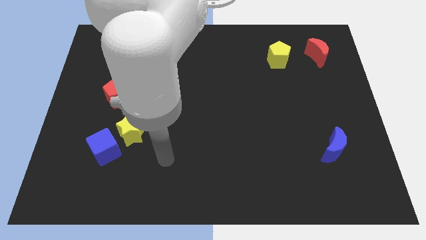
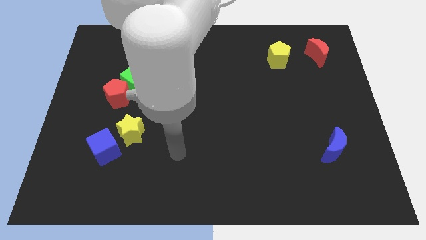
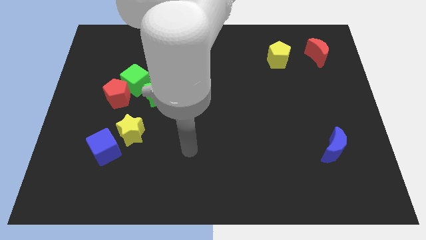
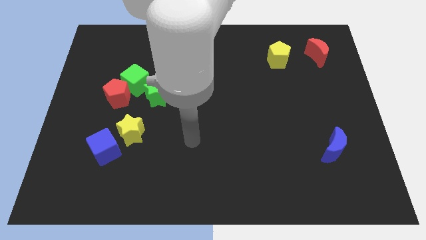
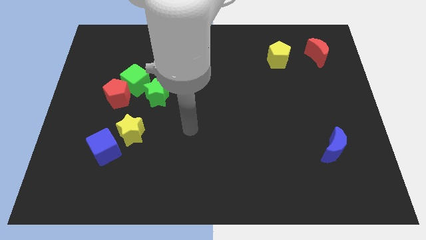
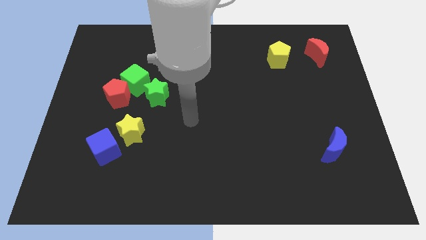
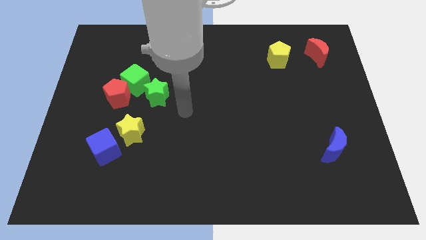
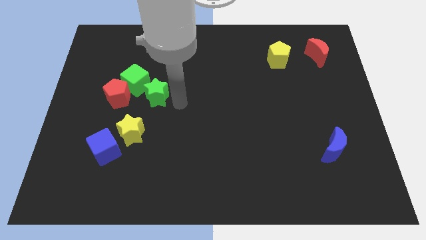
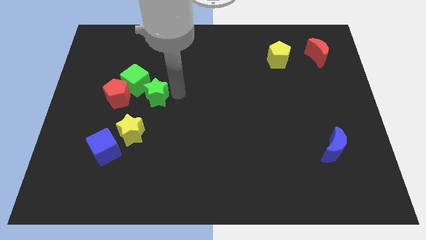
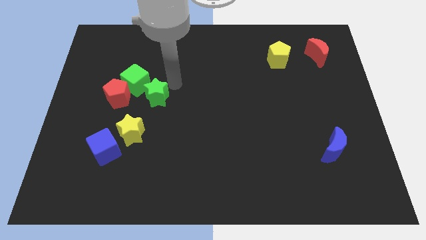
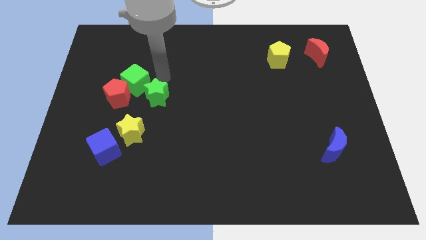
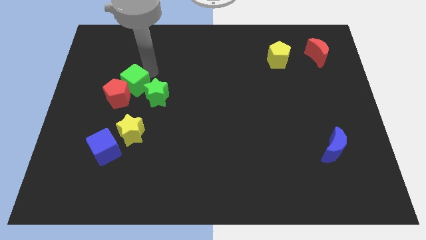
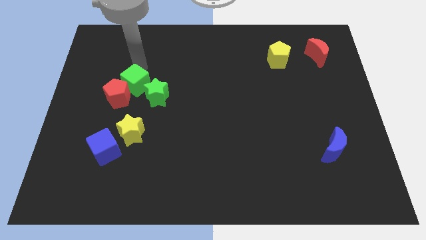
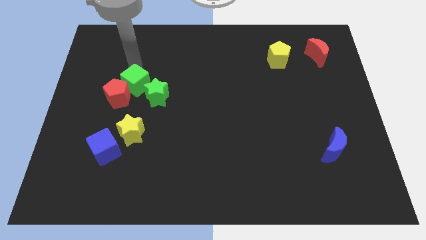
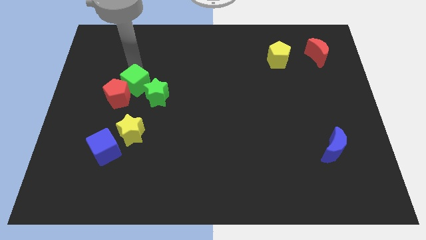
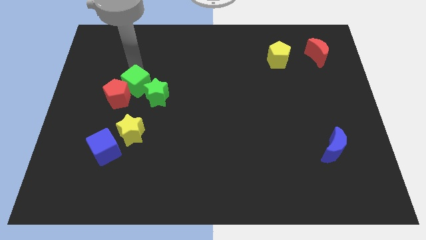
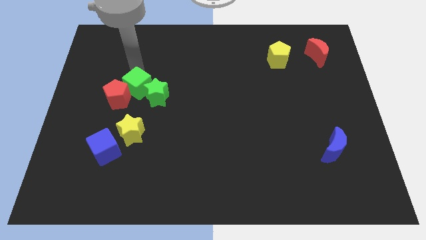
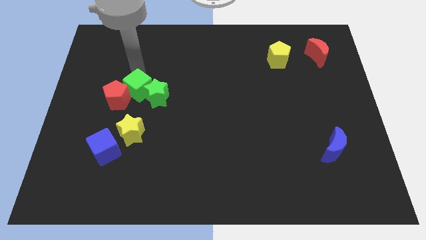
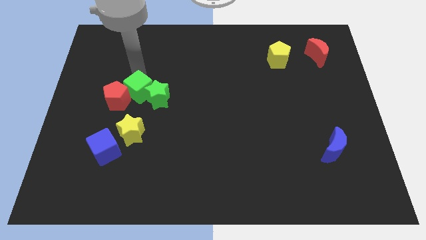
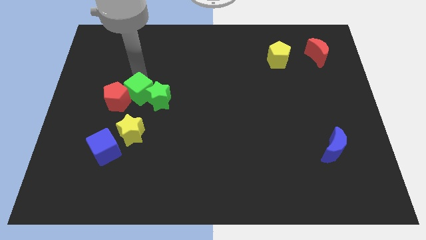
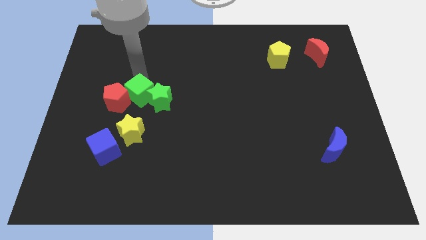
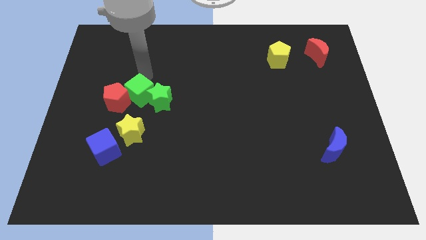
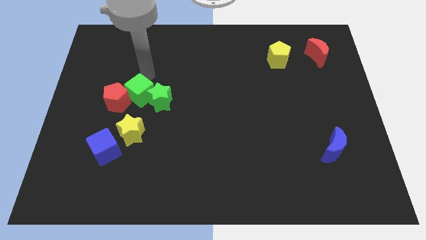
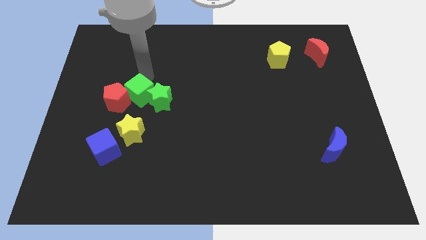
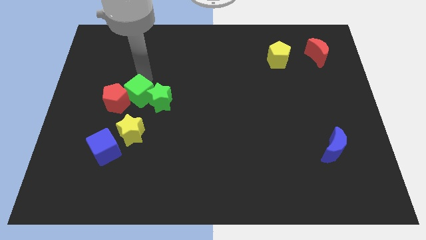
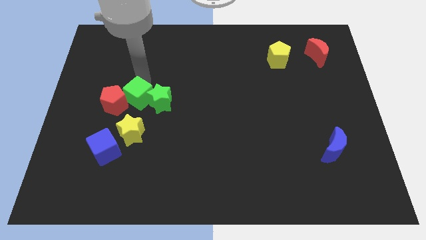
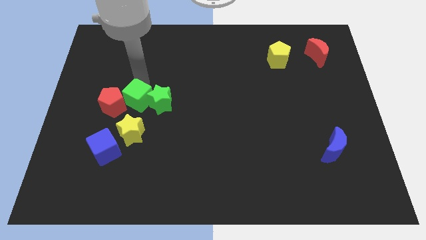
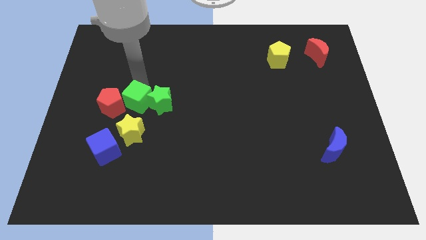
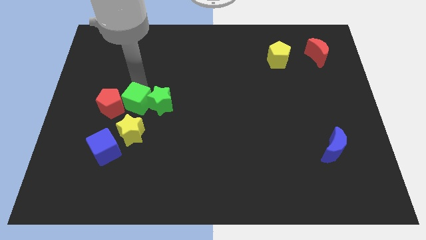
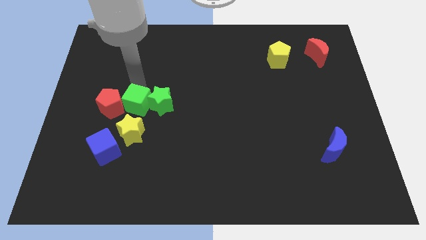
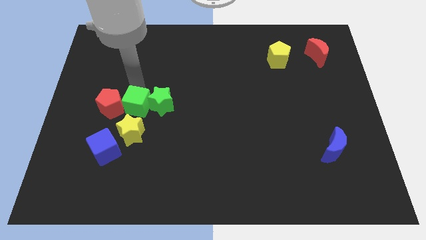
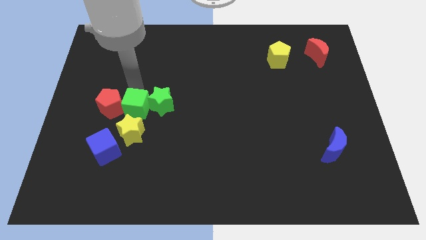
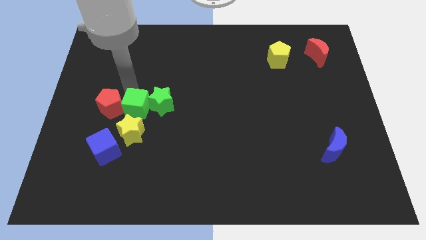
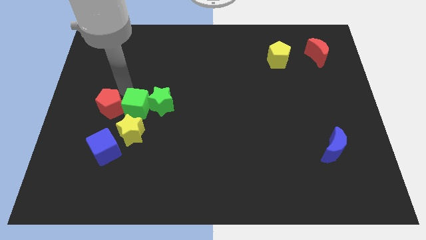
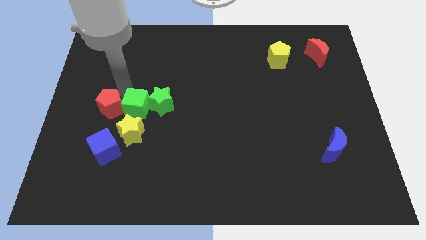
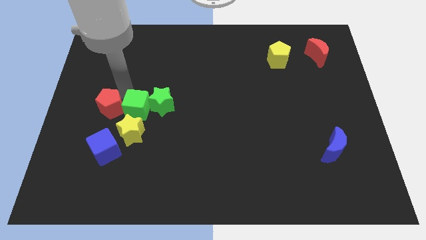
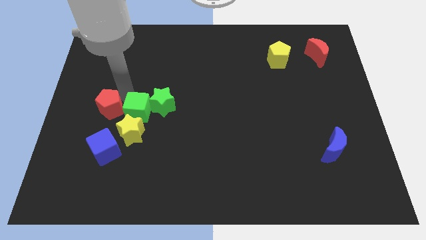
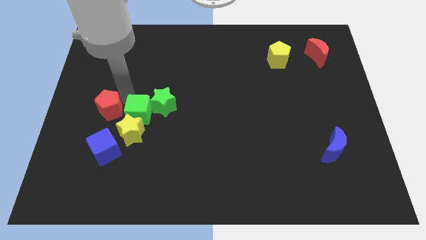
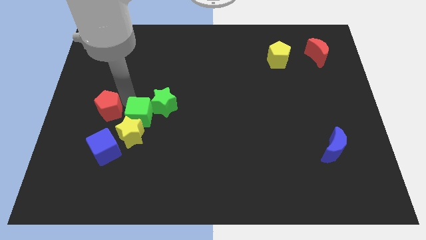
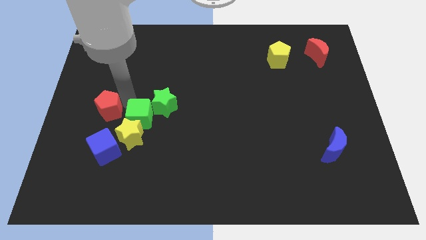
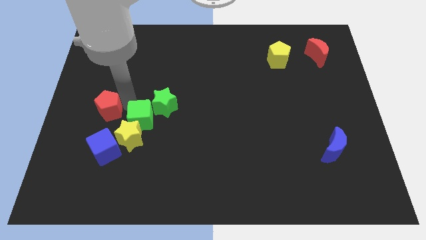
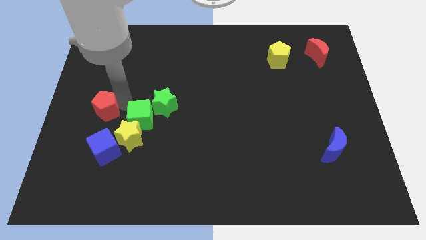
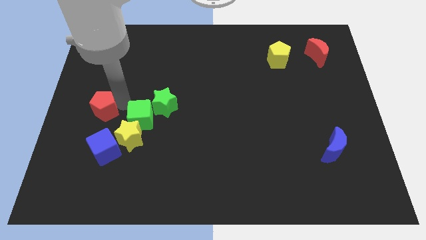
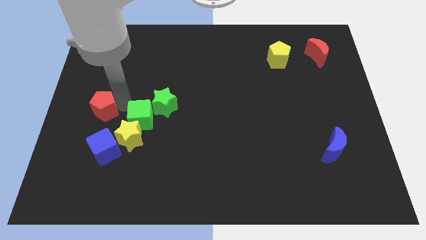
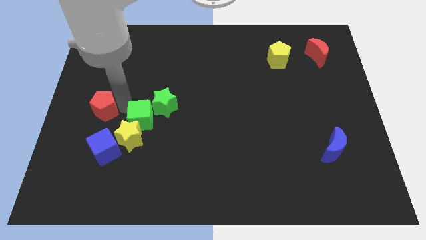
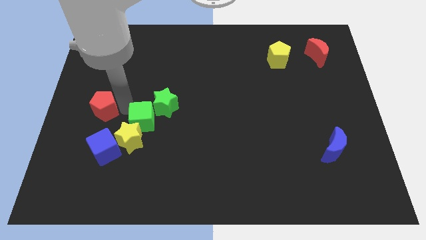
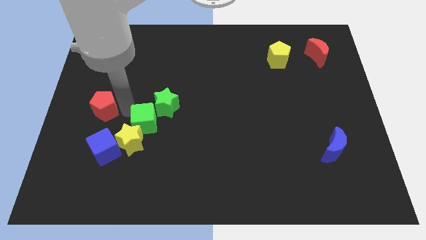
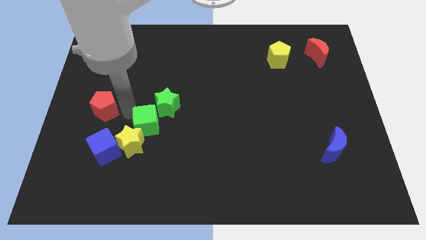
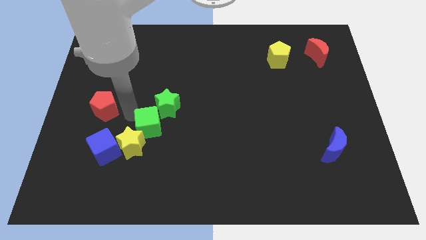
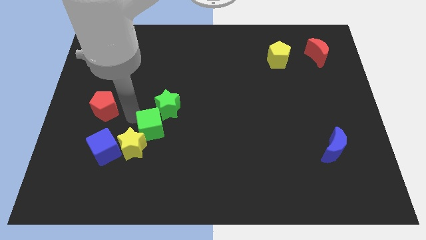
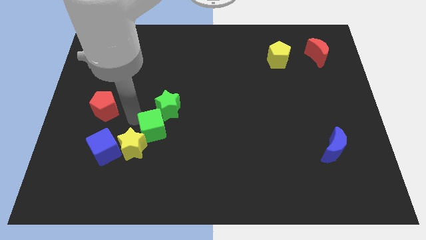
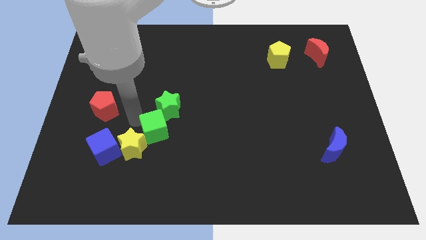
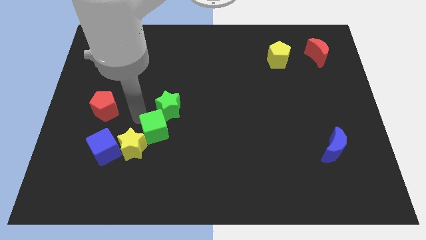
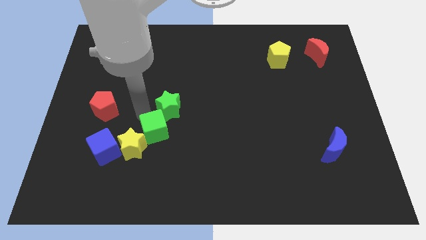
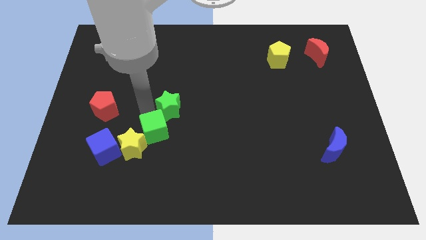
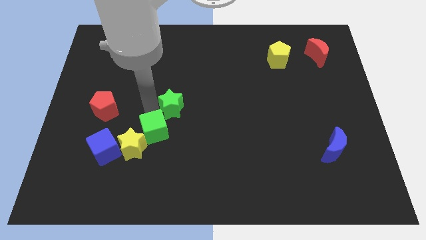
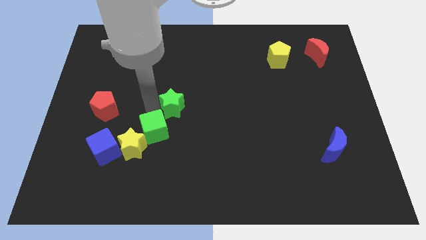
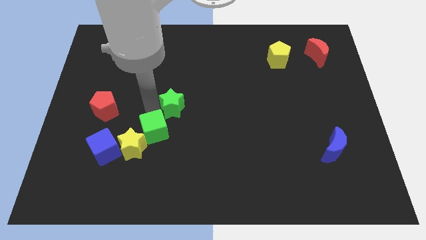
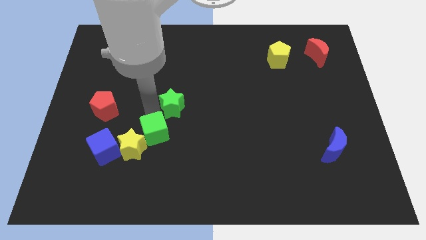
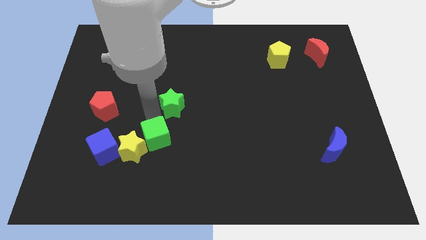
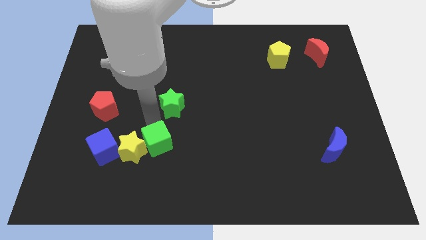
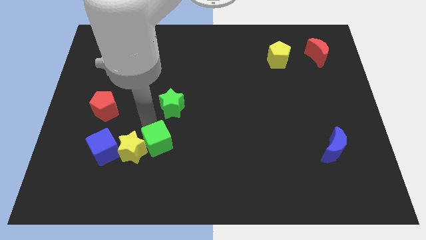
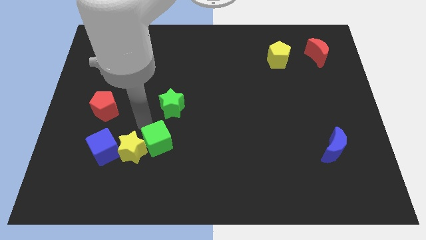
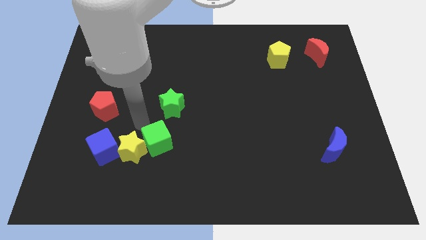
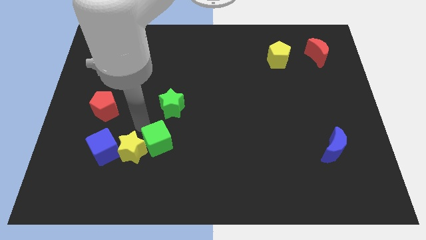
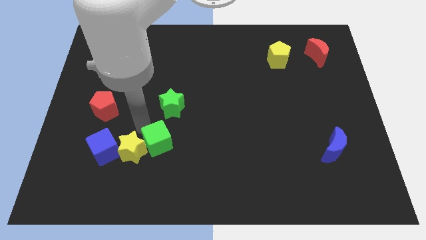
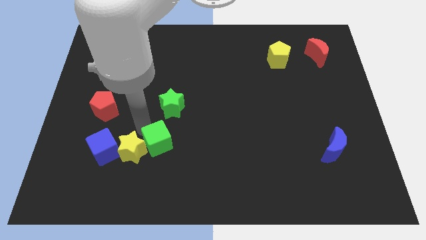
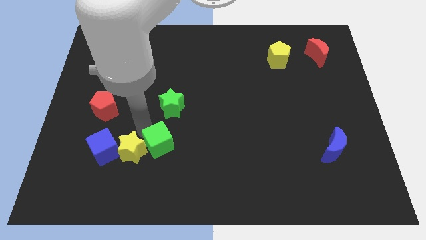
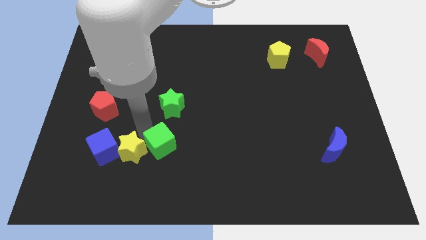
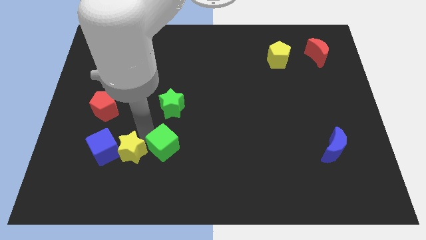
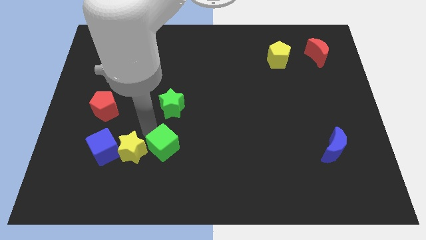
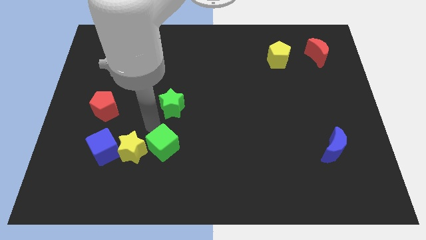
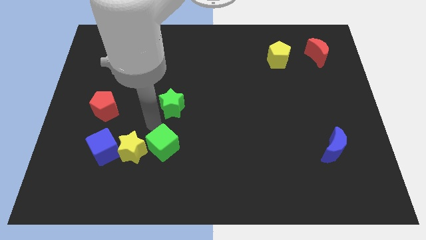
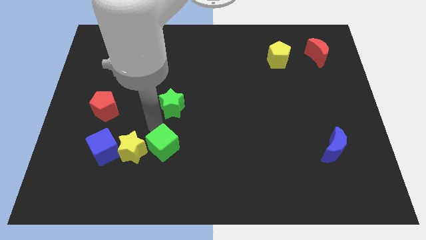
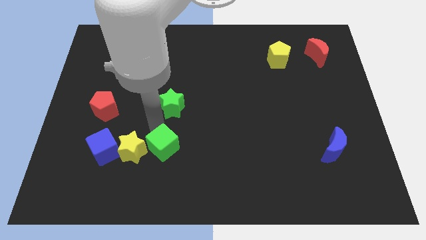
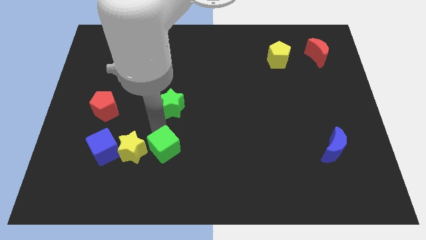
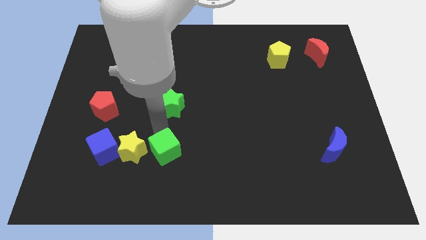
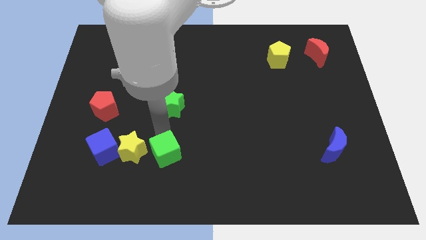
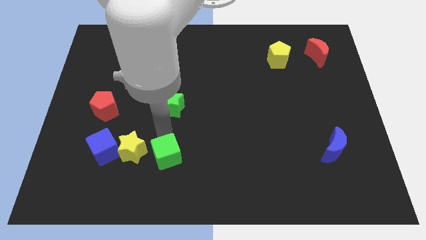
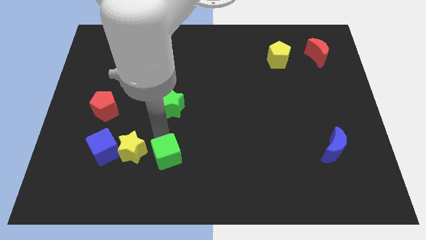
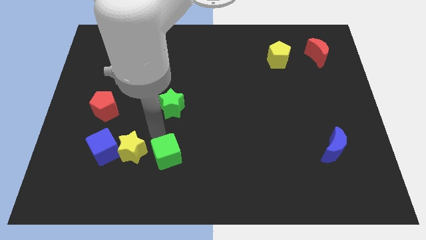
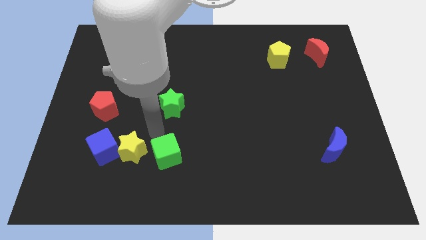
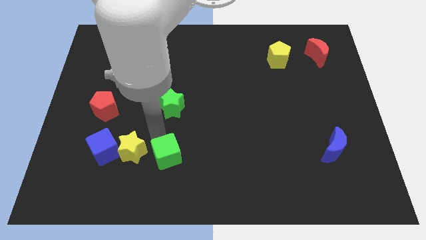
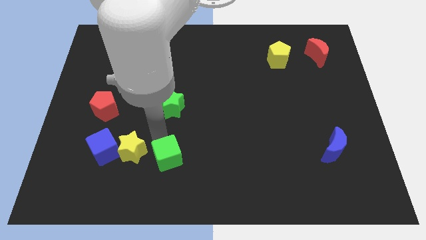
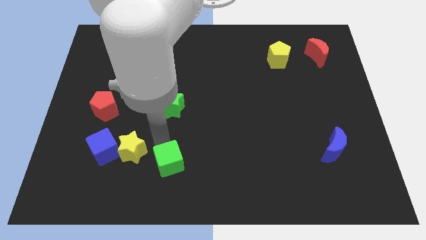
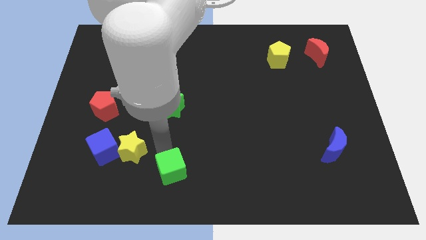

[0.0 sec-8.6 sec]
move the green cube to the bottom side

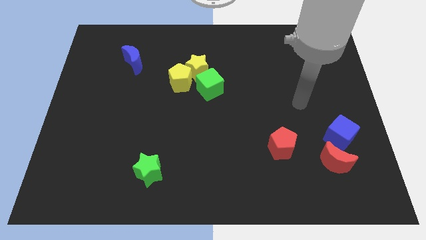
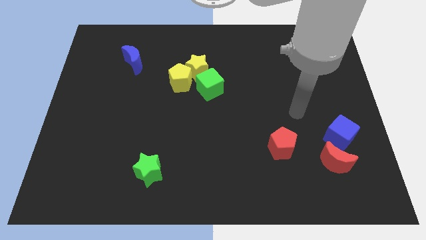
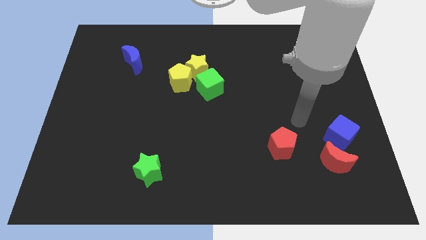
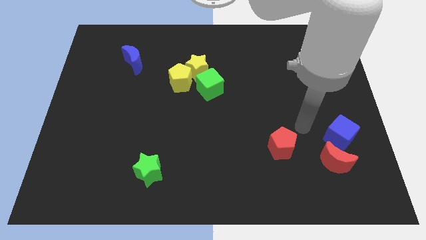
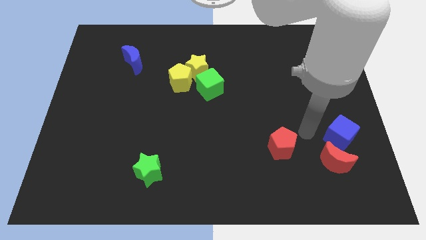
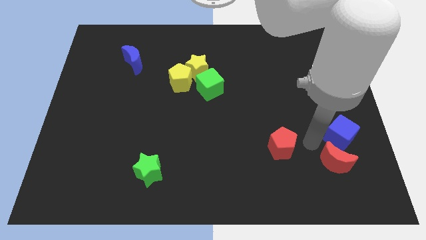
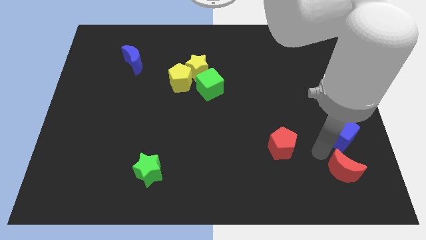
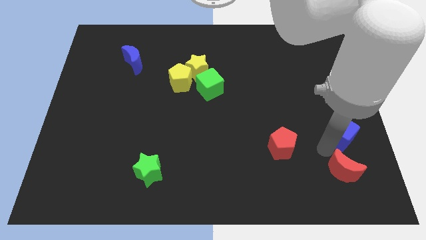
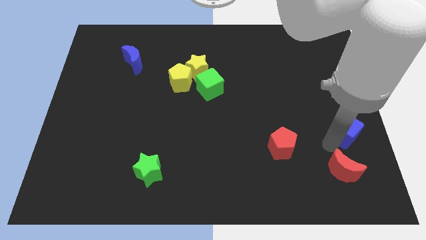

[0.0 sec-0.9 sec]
move the blue cube to the right side
